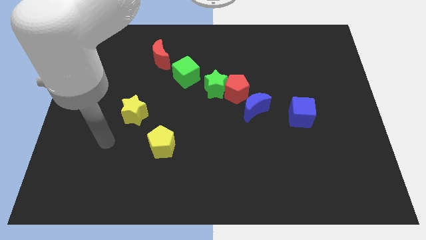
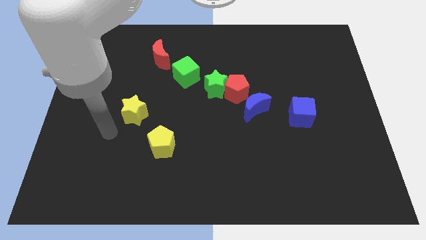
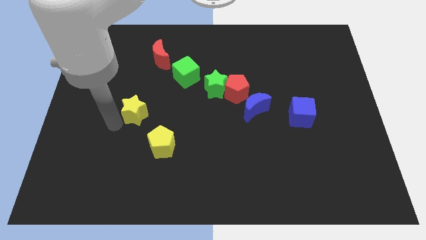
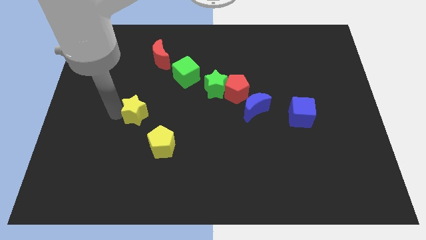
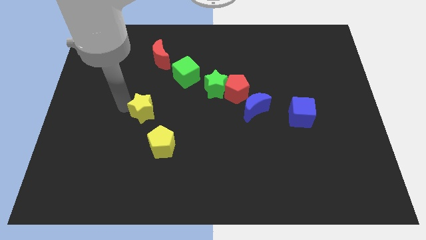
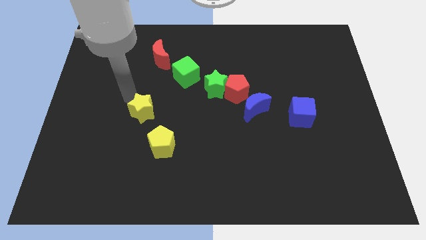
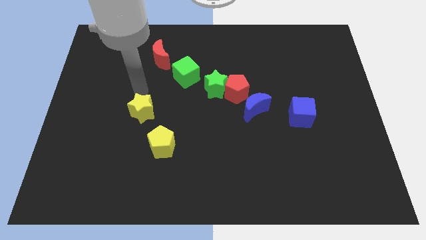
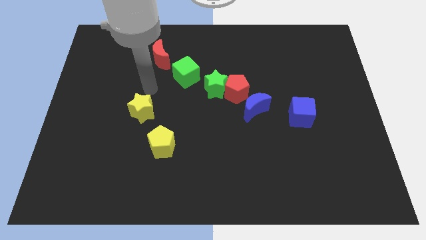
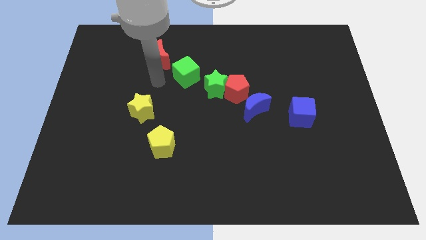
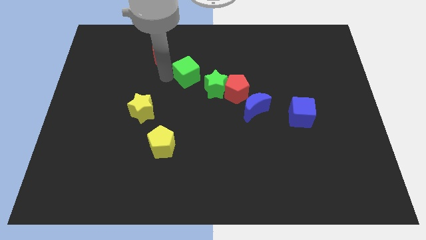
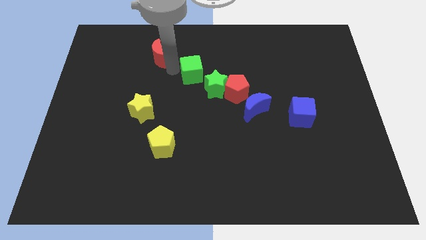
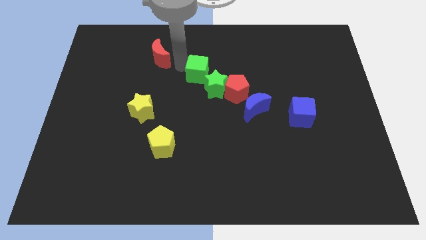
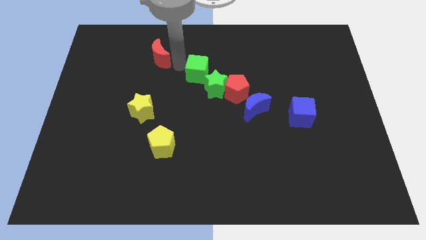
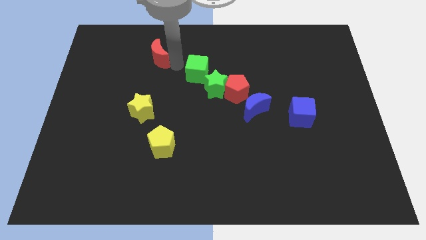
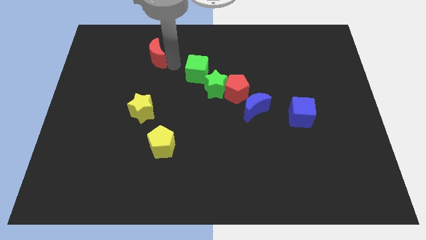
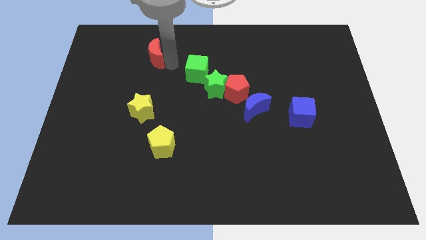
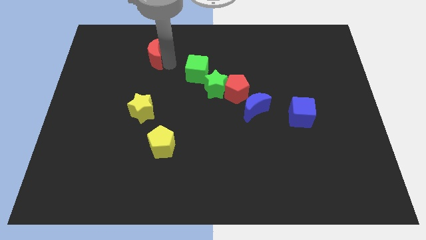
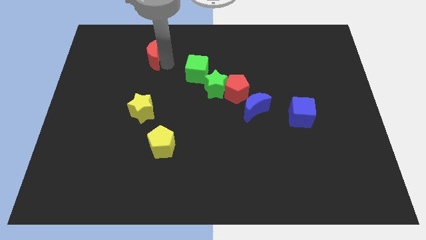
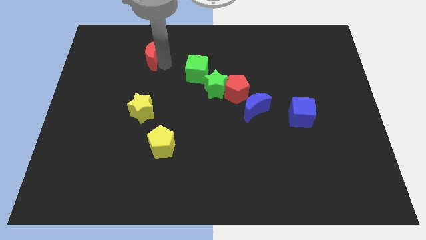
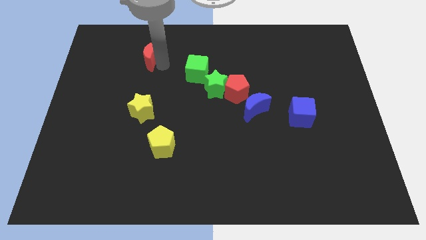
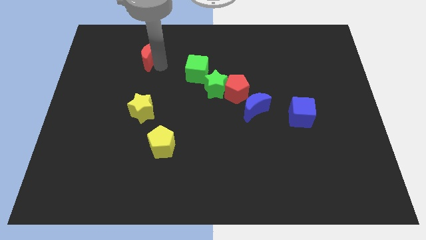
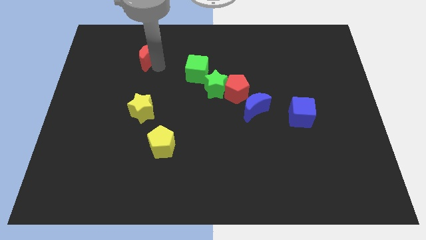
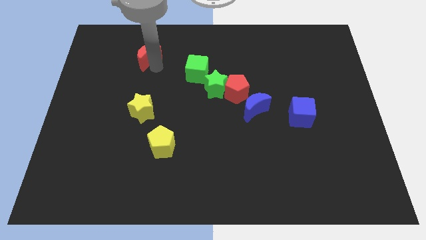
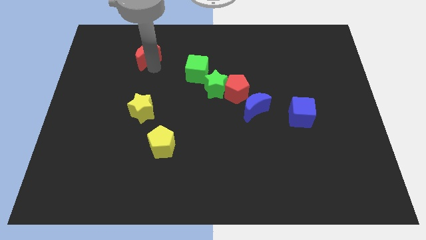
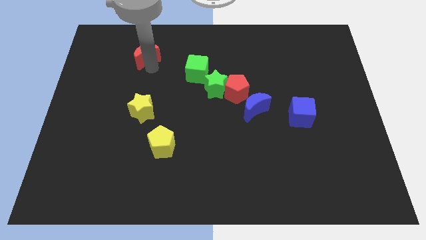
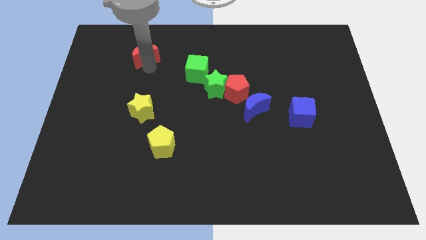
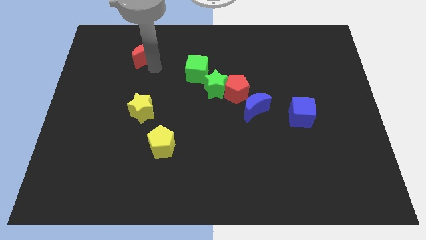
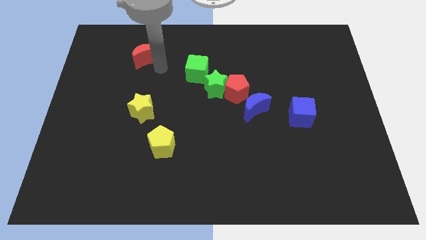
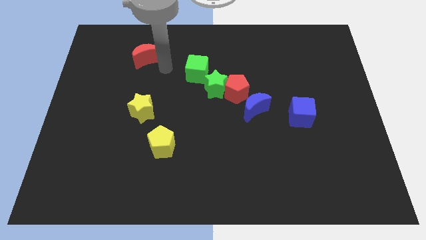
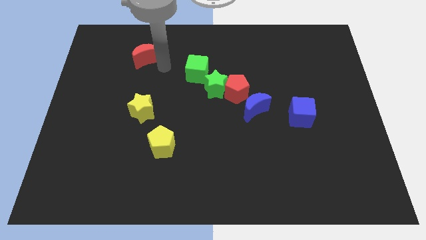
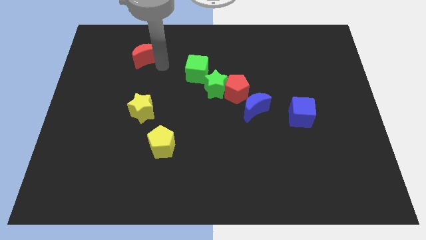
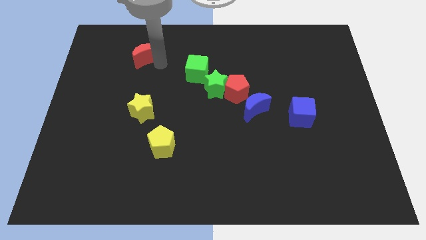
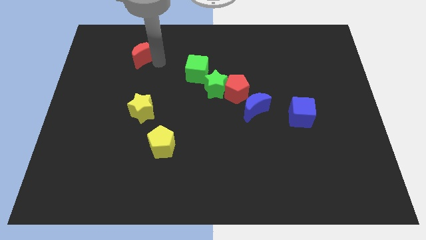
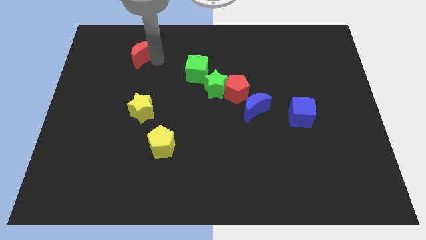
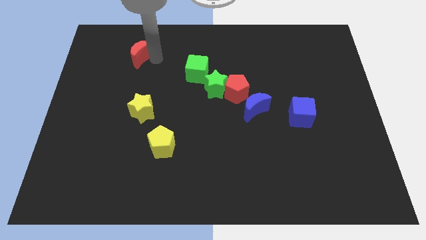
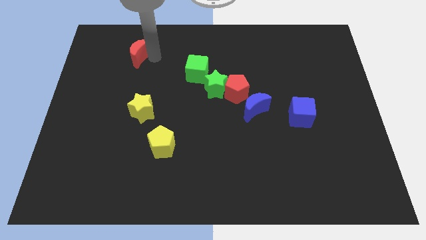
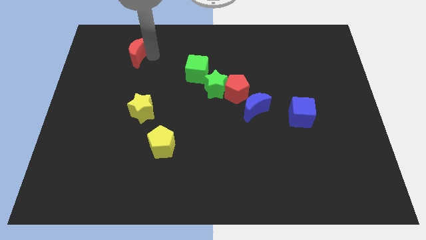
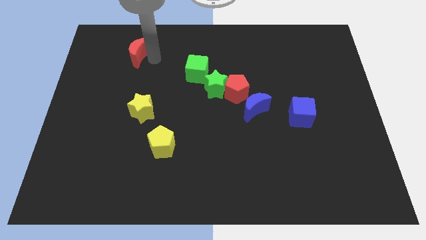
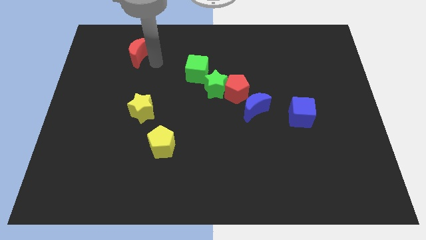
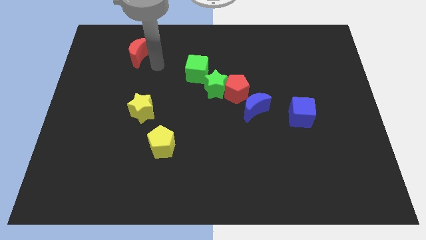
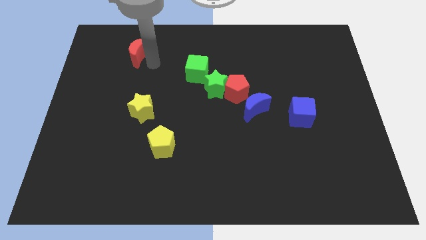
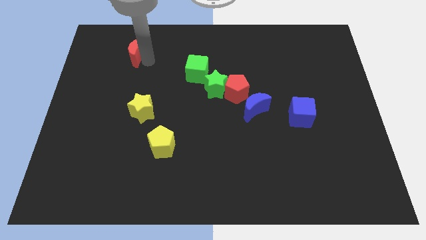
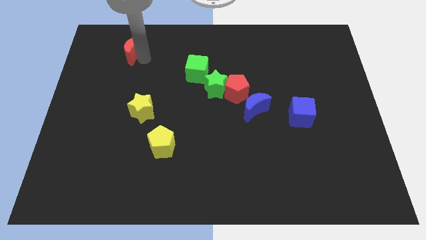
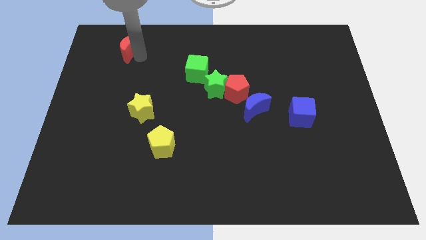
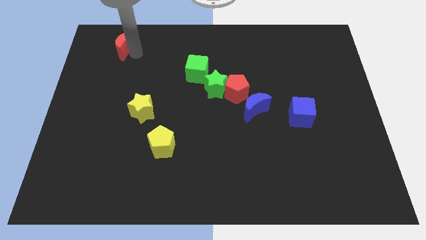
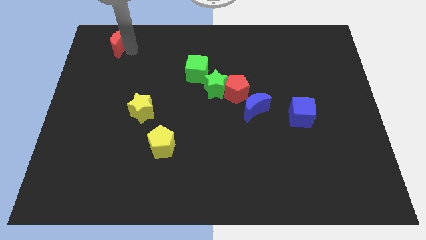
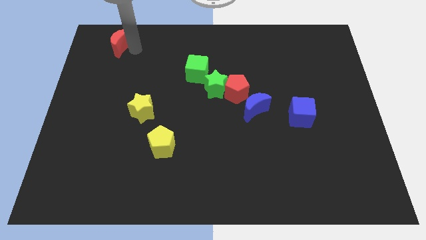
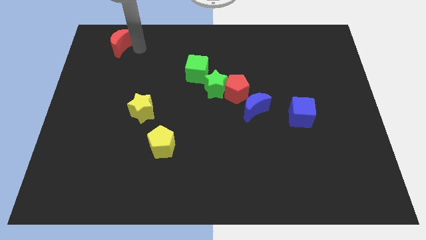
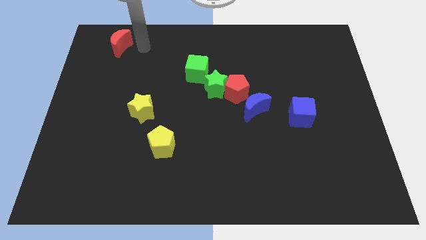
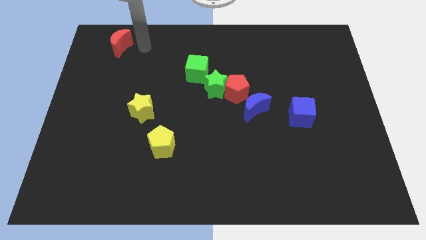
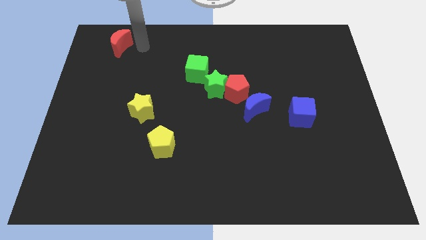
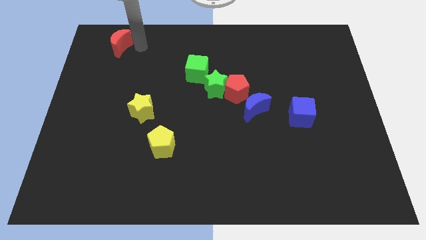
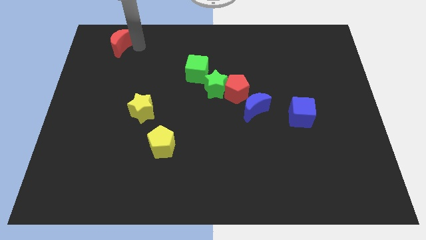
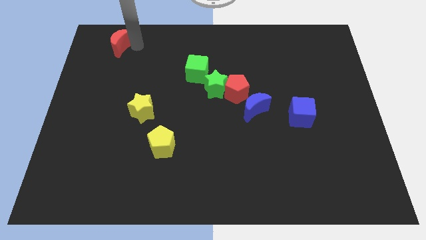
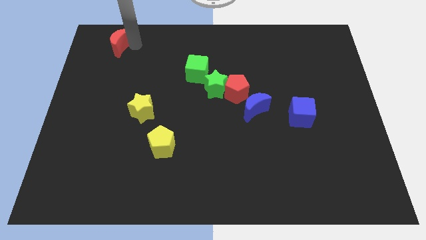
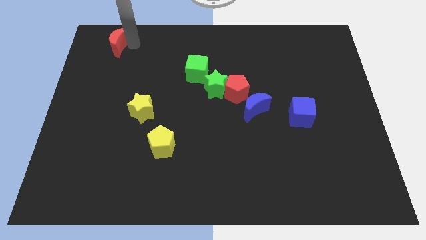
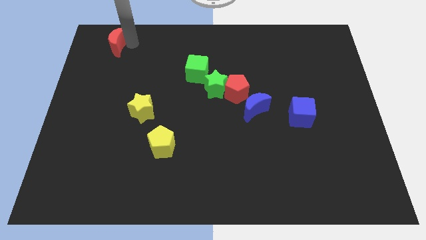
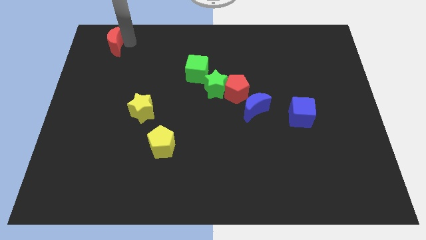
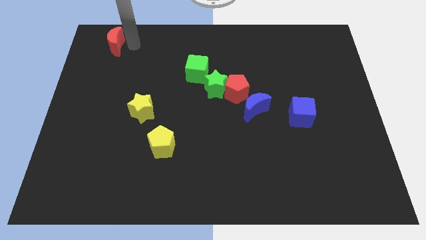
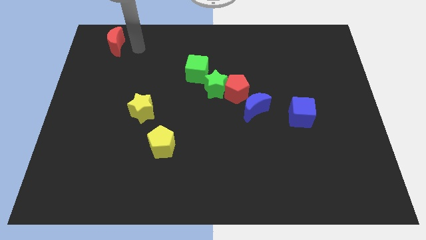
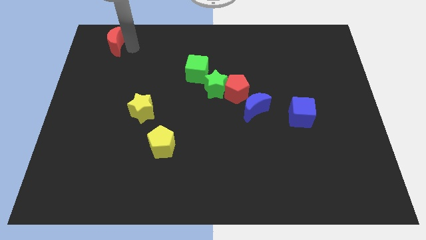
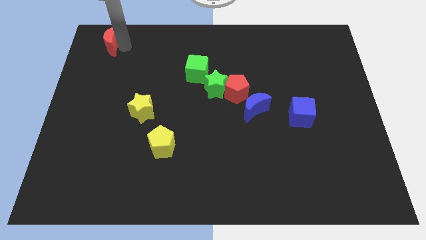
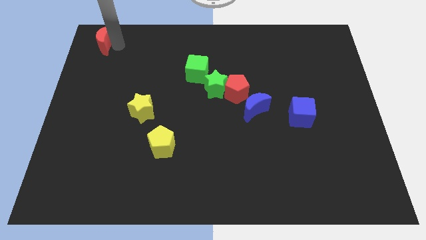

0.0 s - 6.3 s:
move the red moon to the upper left corner

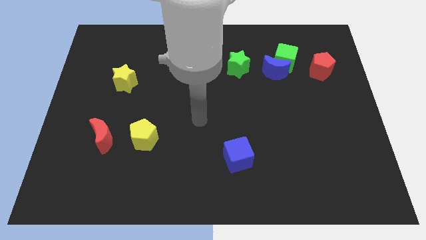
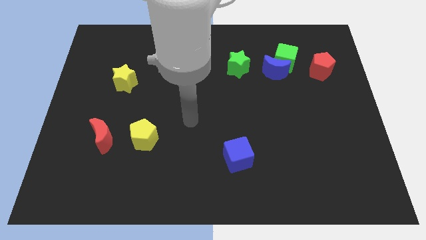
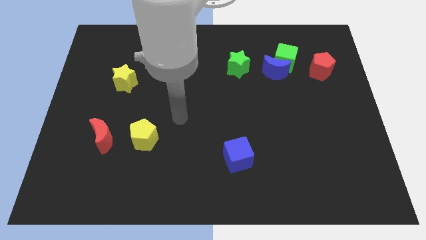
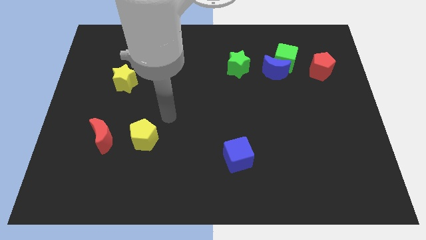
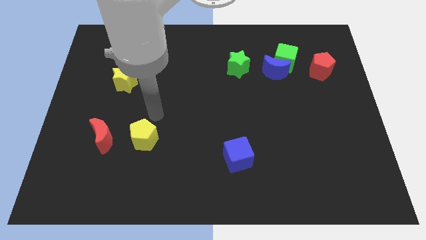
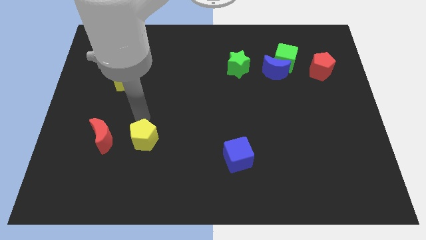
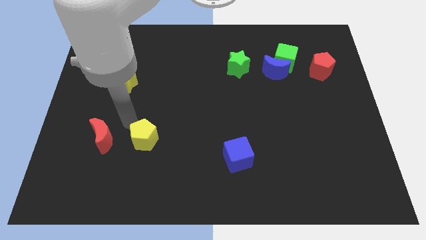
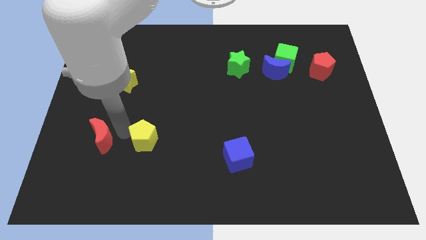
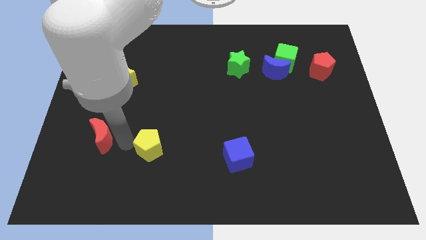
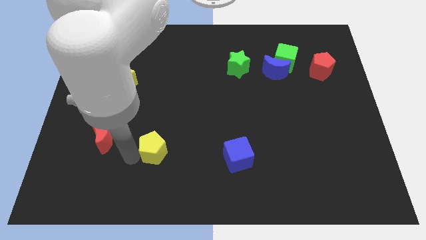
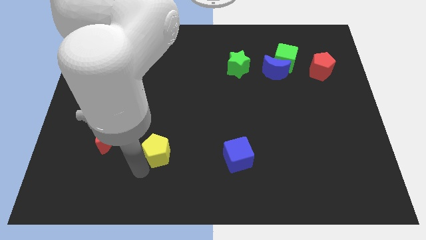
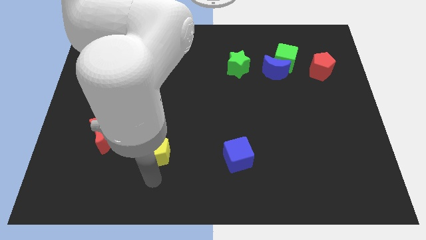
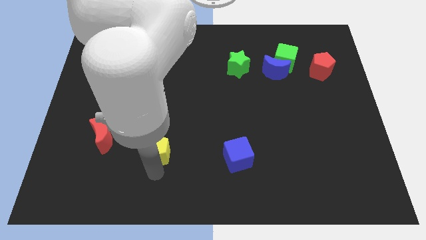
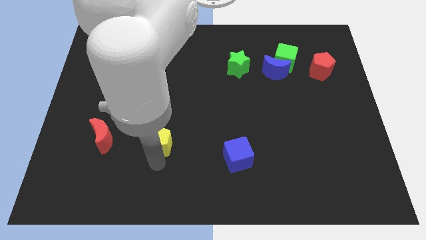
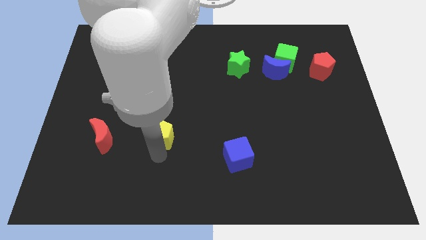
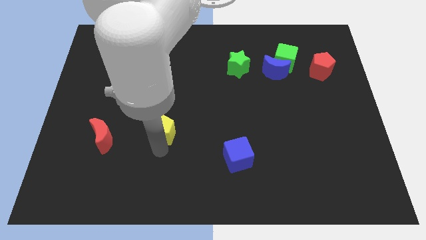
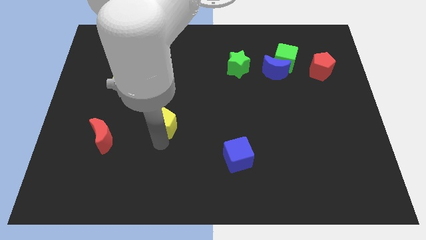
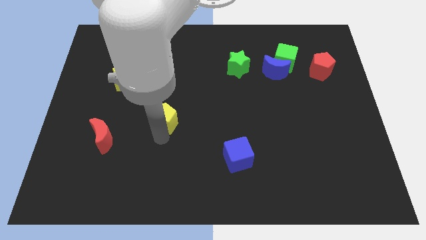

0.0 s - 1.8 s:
push the yellow pentagon to the center
